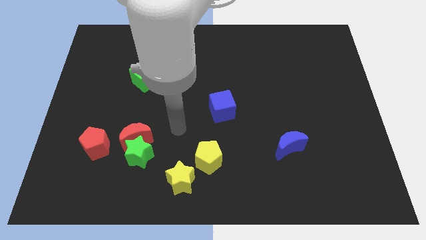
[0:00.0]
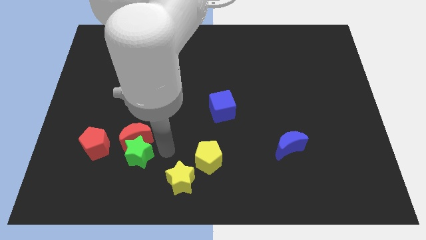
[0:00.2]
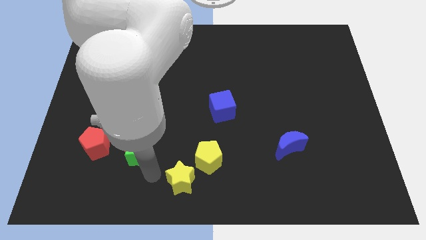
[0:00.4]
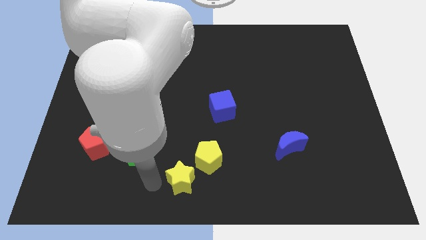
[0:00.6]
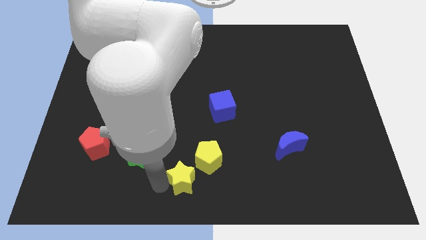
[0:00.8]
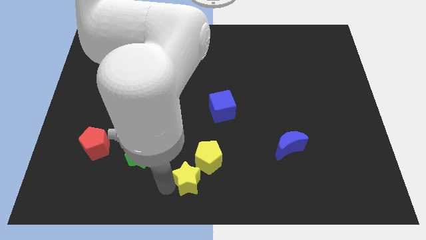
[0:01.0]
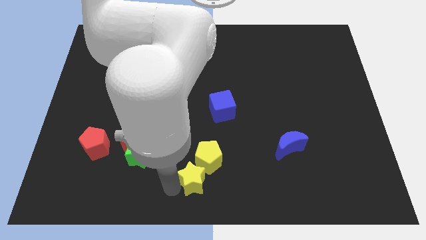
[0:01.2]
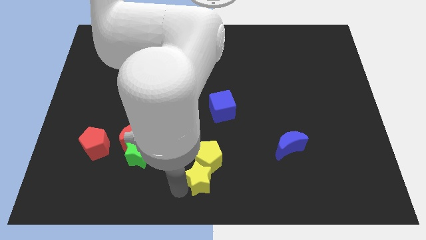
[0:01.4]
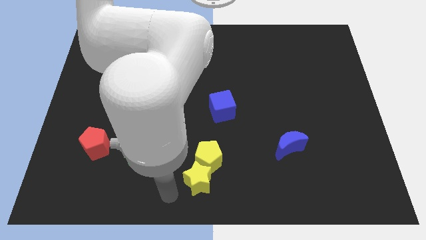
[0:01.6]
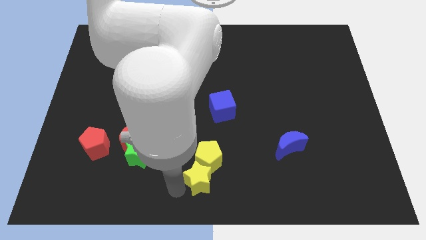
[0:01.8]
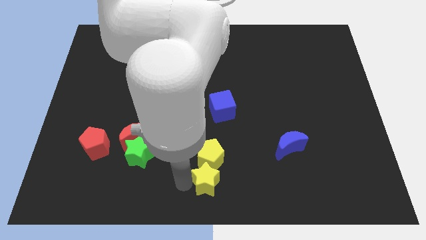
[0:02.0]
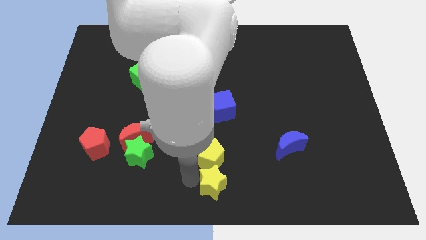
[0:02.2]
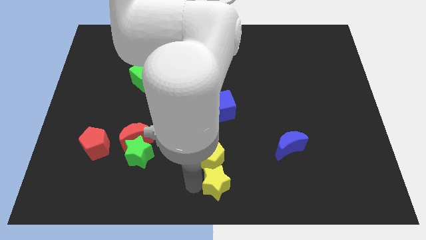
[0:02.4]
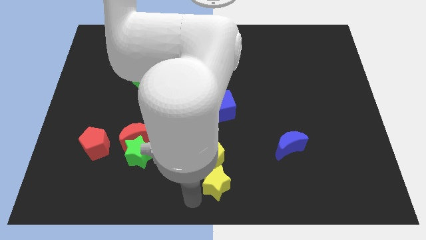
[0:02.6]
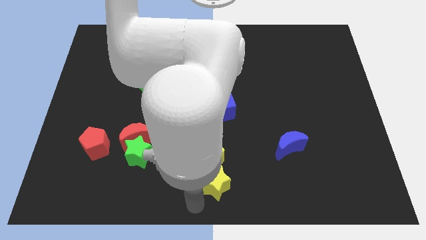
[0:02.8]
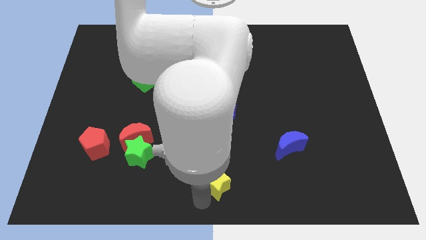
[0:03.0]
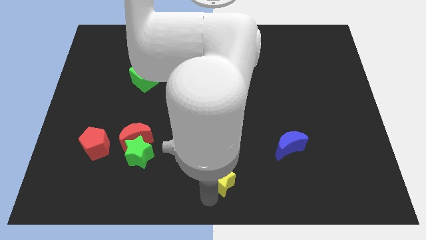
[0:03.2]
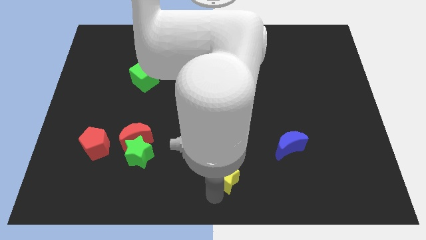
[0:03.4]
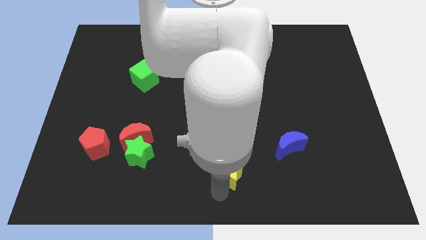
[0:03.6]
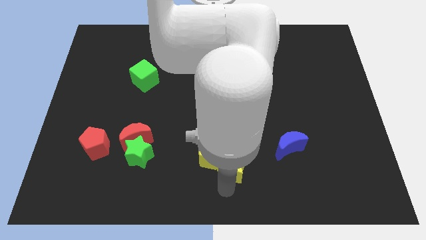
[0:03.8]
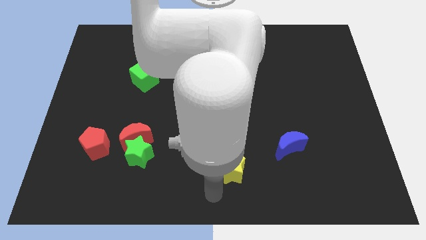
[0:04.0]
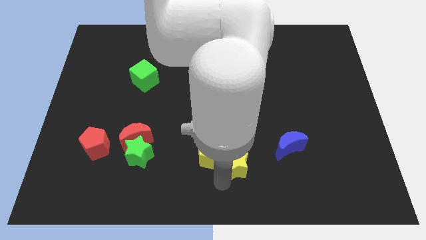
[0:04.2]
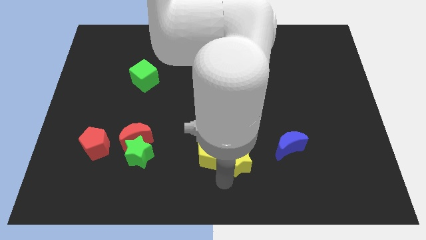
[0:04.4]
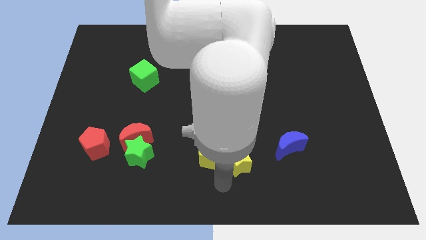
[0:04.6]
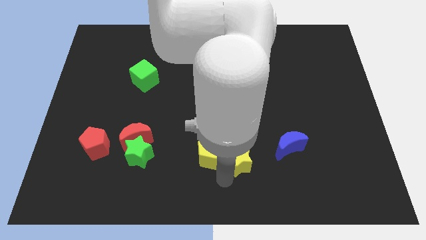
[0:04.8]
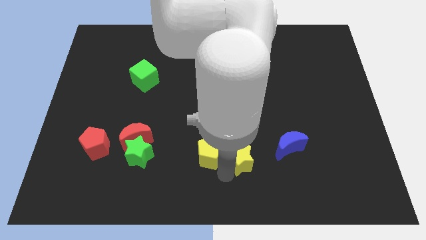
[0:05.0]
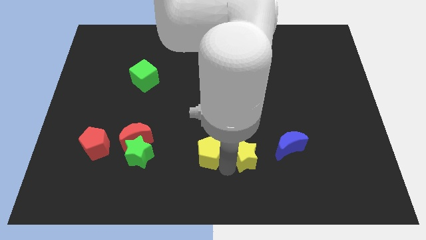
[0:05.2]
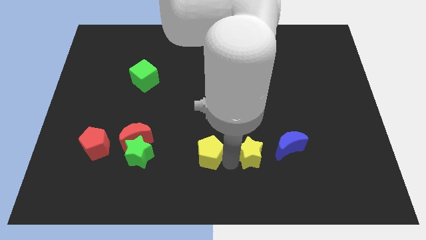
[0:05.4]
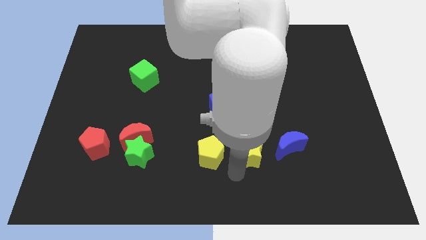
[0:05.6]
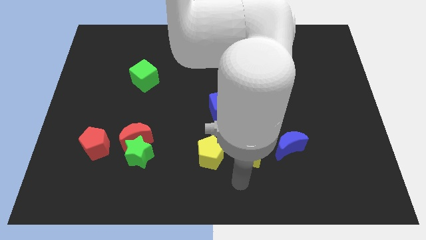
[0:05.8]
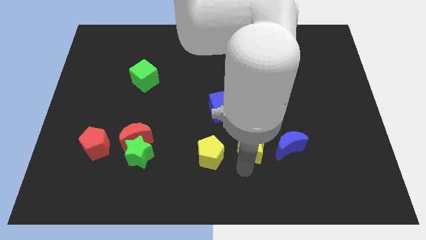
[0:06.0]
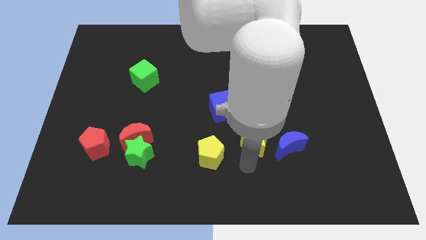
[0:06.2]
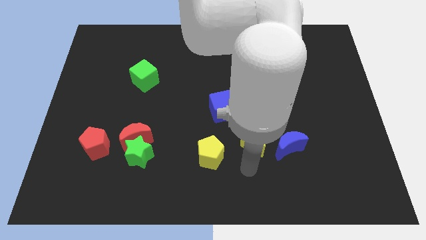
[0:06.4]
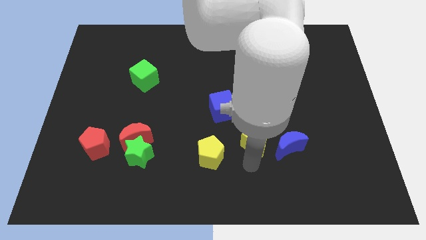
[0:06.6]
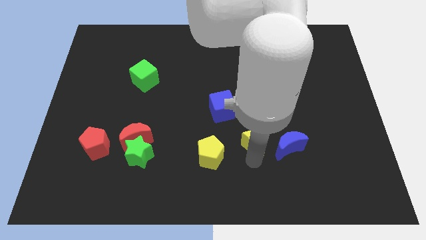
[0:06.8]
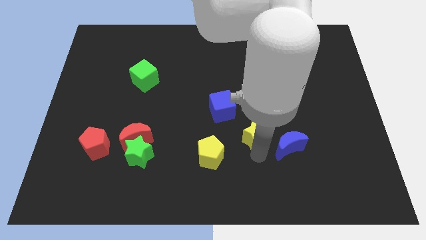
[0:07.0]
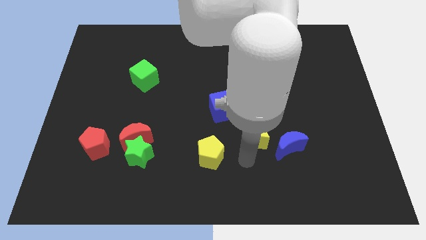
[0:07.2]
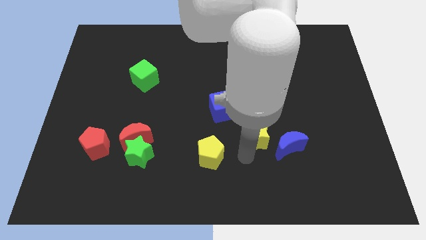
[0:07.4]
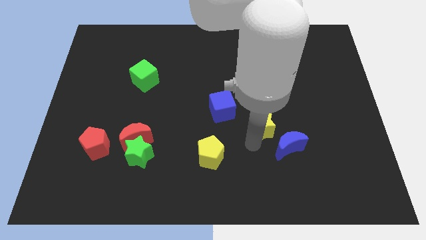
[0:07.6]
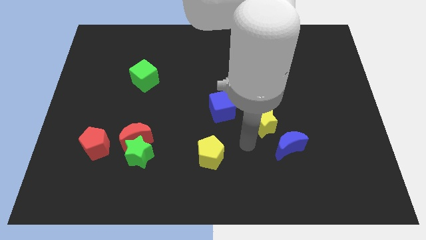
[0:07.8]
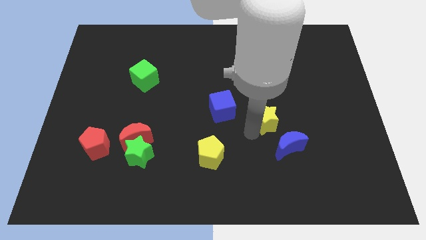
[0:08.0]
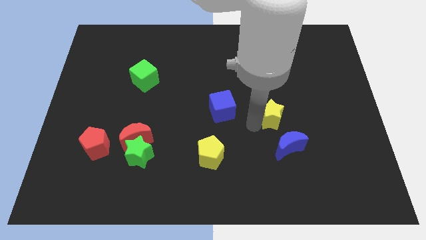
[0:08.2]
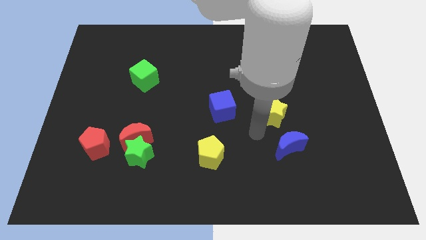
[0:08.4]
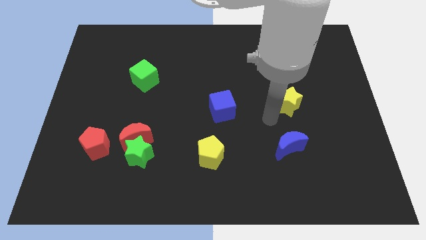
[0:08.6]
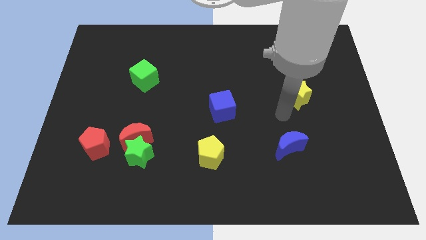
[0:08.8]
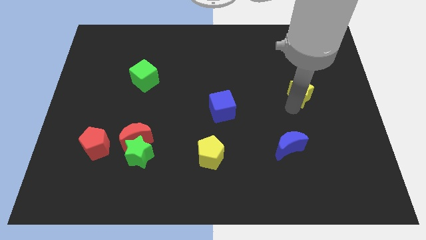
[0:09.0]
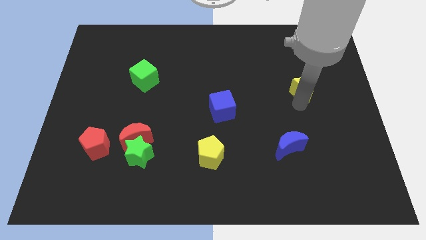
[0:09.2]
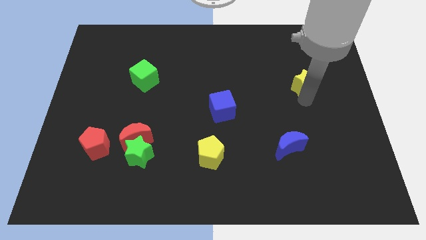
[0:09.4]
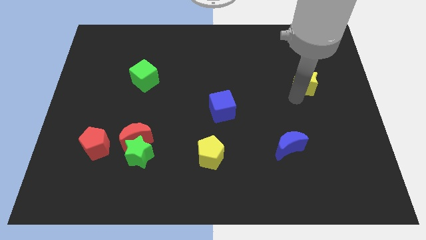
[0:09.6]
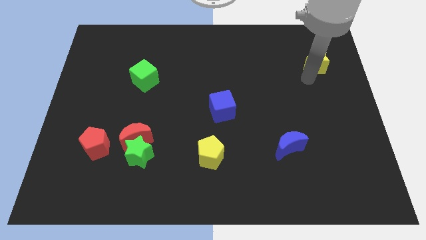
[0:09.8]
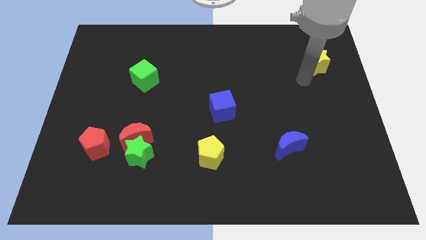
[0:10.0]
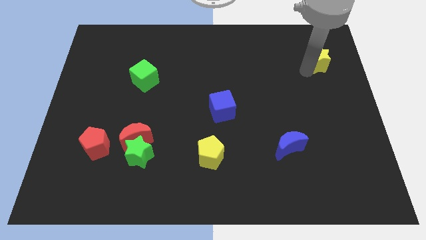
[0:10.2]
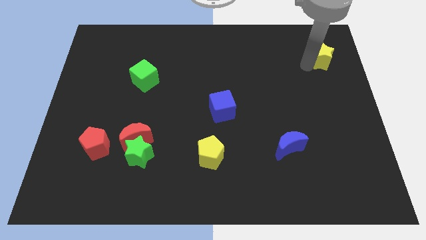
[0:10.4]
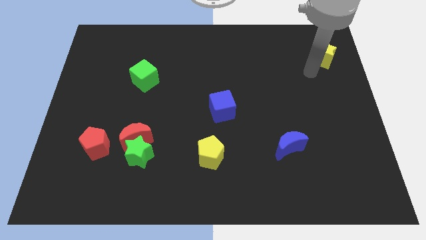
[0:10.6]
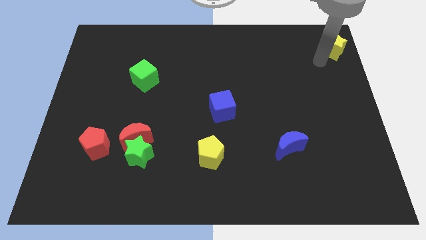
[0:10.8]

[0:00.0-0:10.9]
move the yellow star to the top right corner
